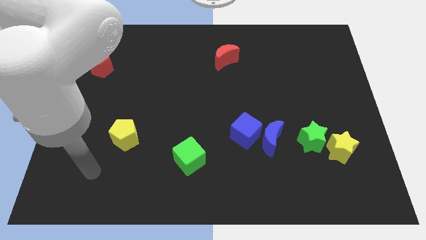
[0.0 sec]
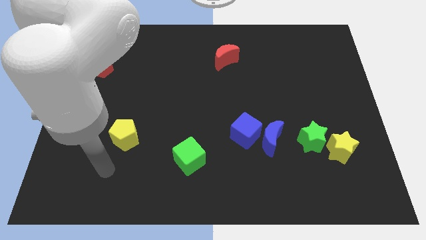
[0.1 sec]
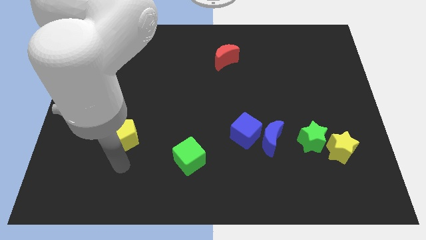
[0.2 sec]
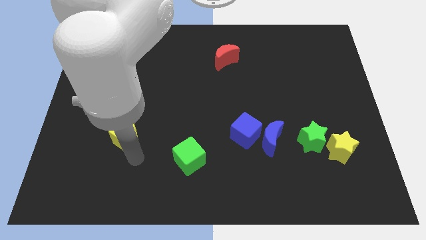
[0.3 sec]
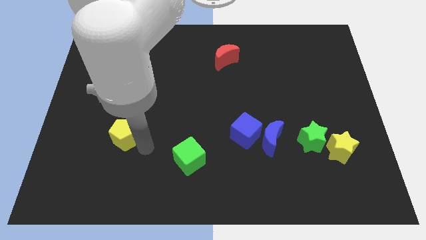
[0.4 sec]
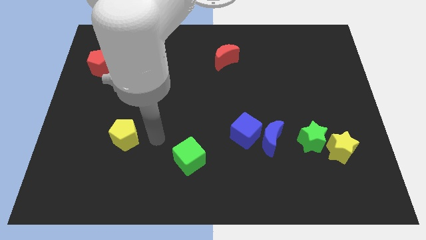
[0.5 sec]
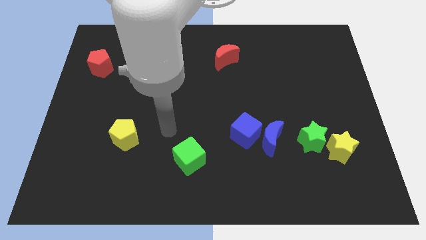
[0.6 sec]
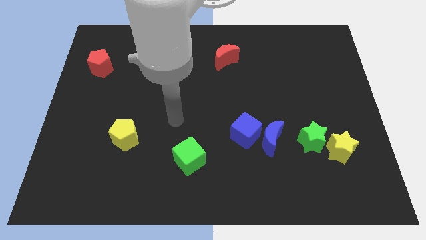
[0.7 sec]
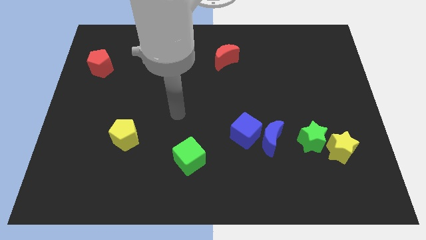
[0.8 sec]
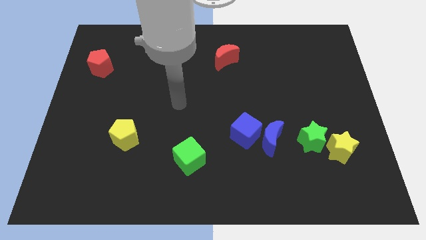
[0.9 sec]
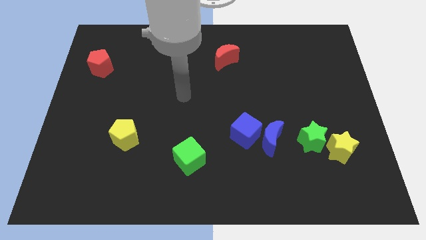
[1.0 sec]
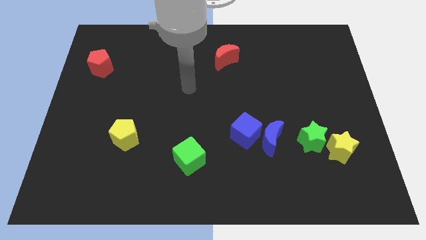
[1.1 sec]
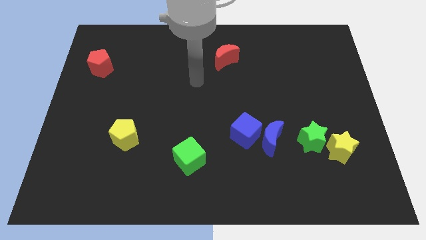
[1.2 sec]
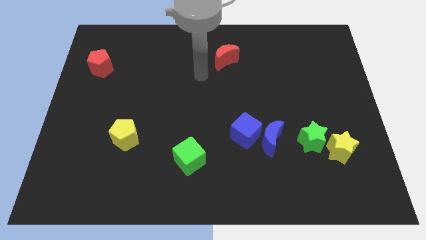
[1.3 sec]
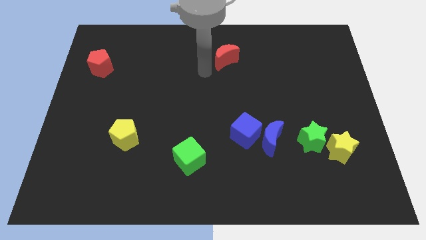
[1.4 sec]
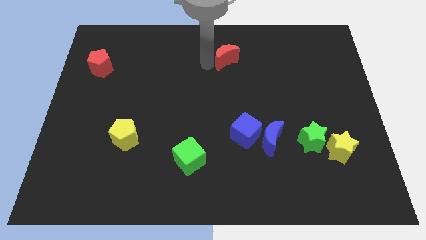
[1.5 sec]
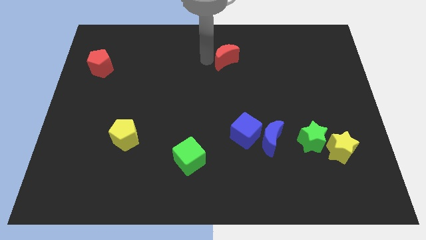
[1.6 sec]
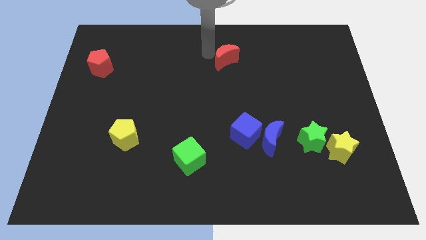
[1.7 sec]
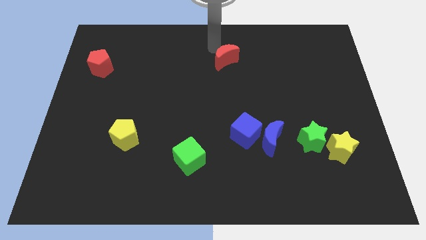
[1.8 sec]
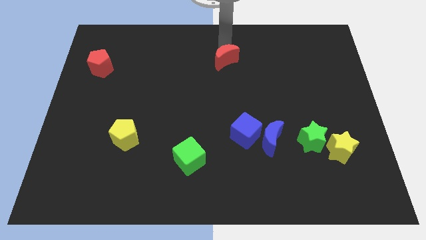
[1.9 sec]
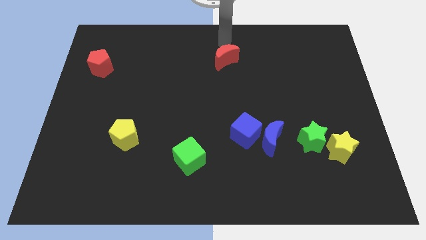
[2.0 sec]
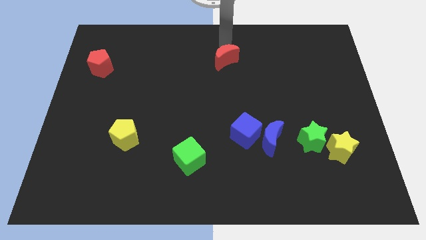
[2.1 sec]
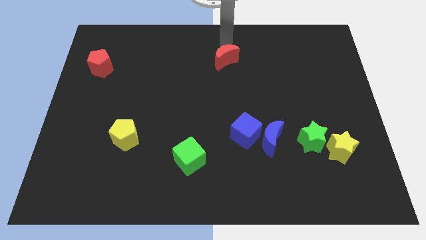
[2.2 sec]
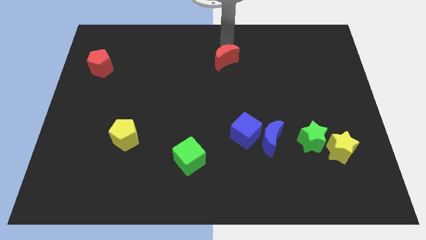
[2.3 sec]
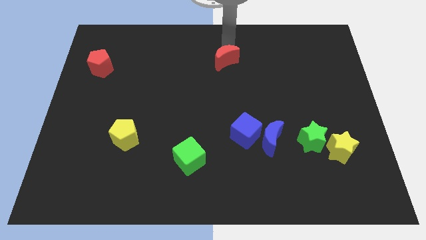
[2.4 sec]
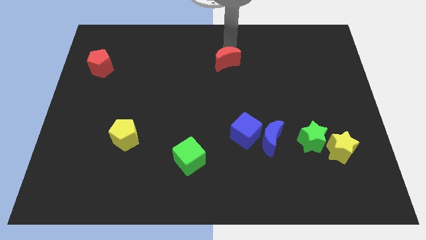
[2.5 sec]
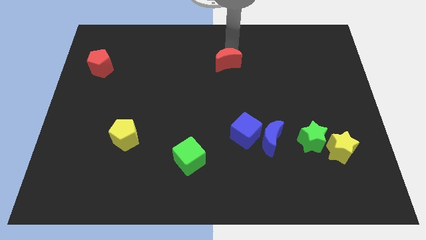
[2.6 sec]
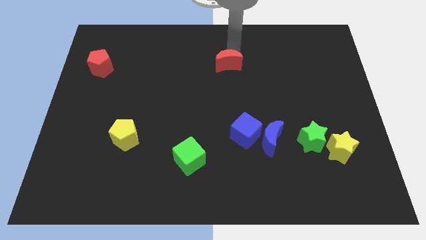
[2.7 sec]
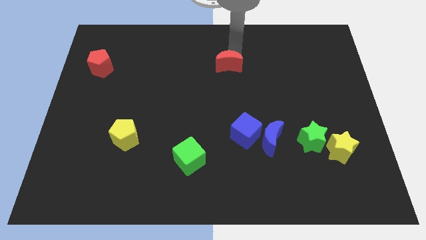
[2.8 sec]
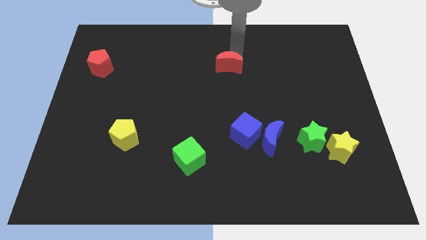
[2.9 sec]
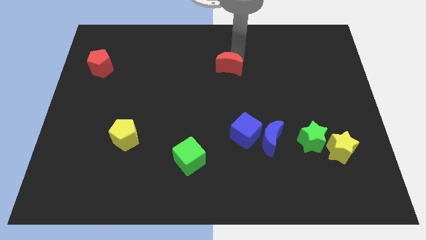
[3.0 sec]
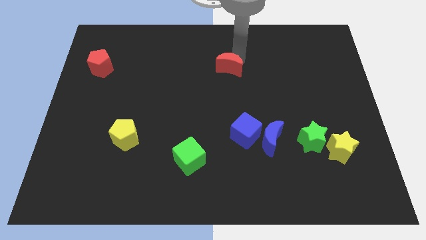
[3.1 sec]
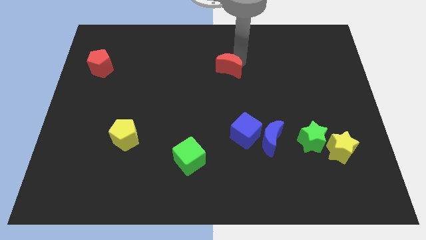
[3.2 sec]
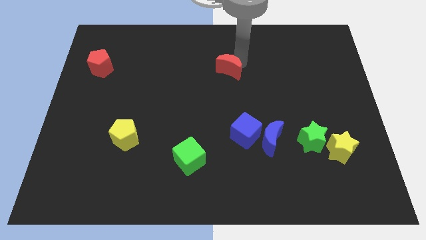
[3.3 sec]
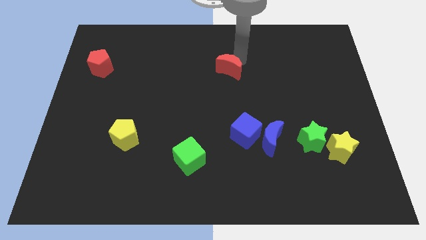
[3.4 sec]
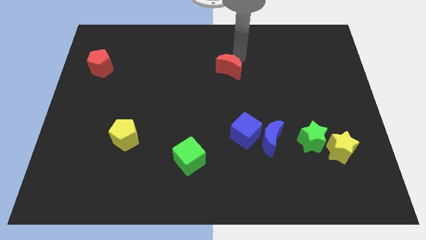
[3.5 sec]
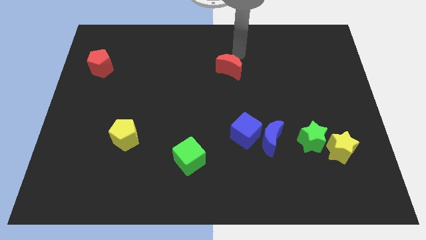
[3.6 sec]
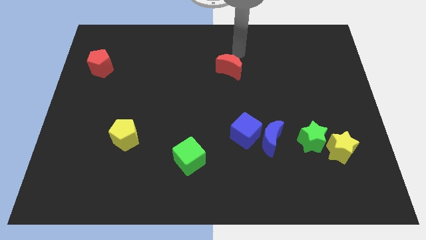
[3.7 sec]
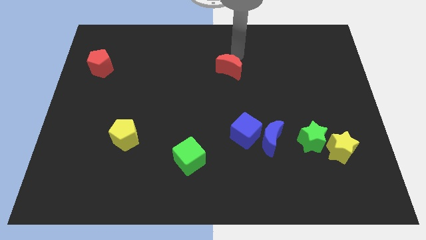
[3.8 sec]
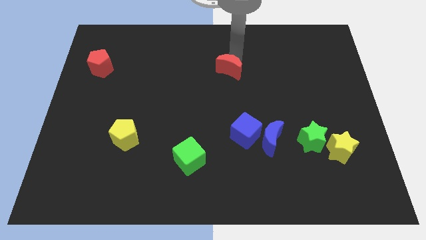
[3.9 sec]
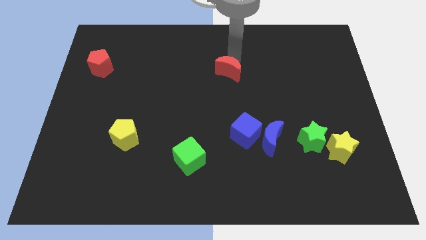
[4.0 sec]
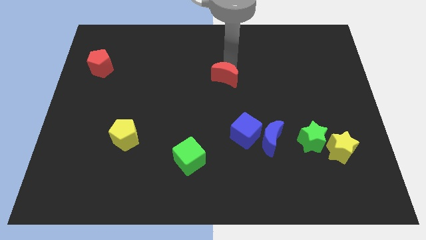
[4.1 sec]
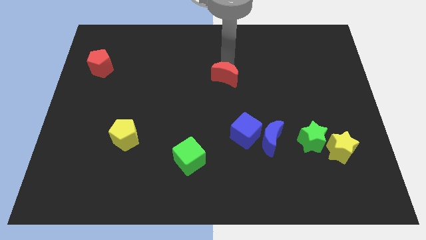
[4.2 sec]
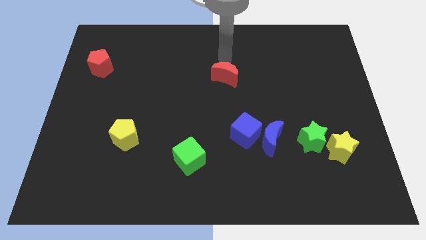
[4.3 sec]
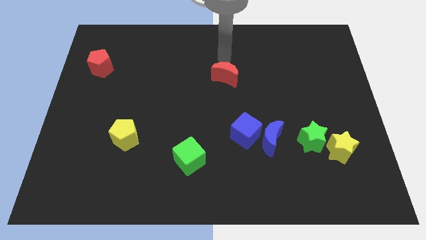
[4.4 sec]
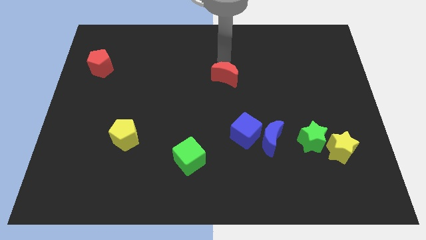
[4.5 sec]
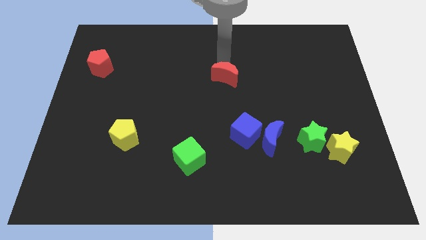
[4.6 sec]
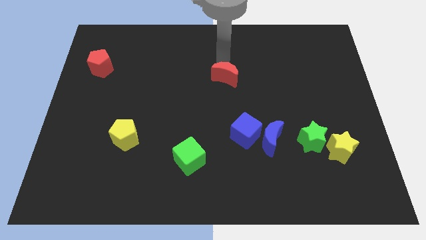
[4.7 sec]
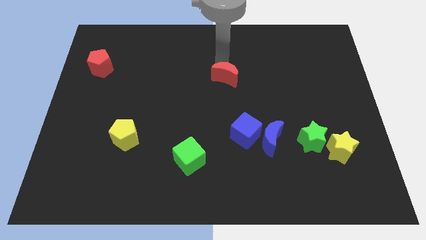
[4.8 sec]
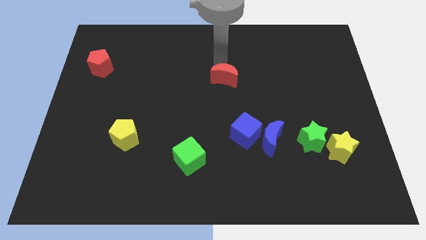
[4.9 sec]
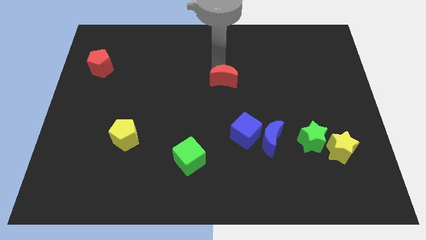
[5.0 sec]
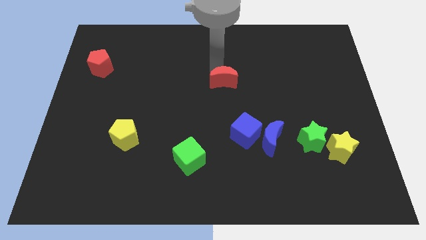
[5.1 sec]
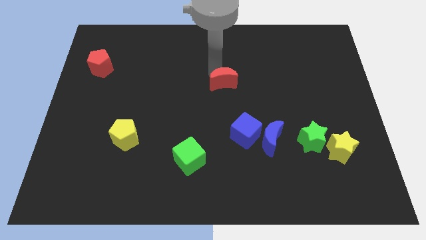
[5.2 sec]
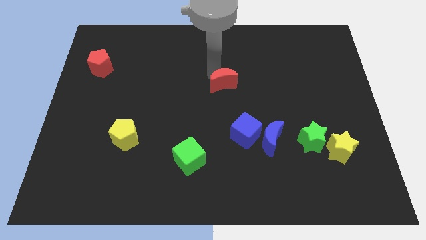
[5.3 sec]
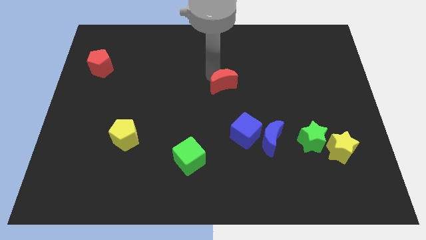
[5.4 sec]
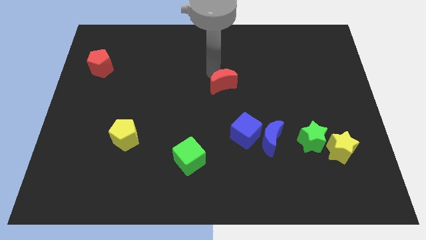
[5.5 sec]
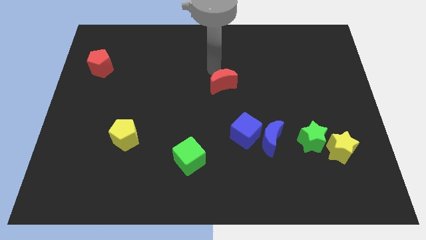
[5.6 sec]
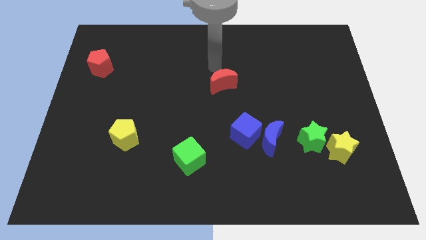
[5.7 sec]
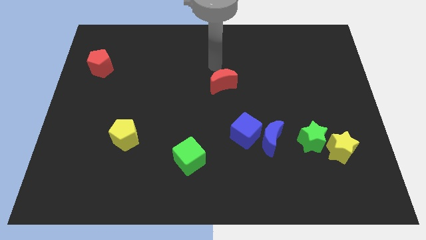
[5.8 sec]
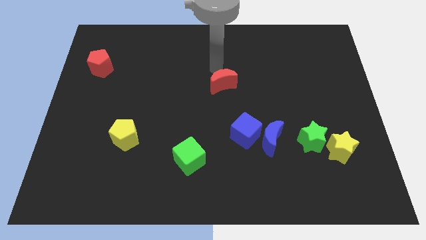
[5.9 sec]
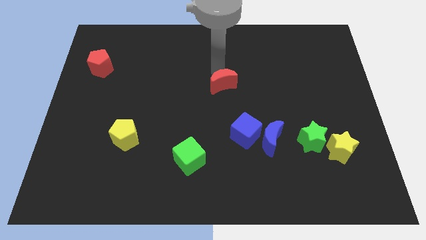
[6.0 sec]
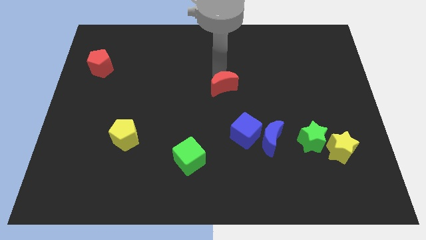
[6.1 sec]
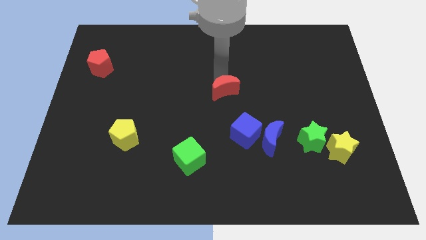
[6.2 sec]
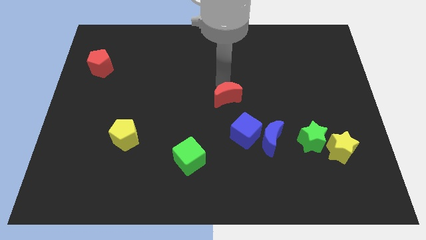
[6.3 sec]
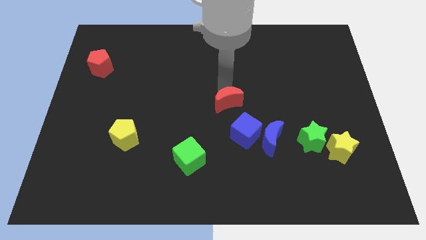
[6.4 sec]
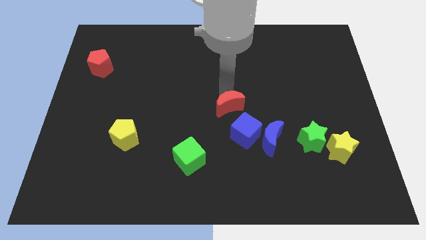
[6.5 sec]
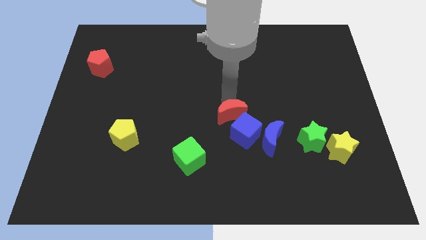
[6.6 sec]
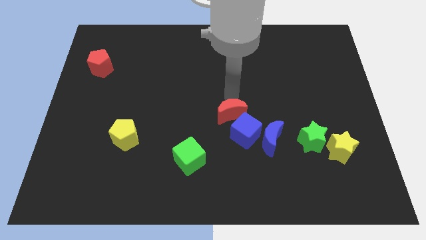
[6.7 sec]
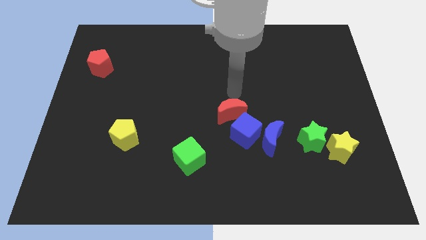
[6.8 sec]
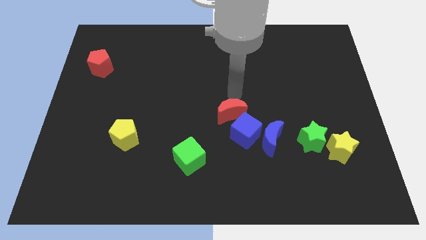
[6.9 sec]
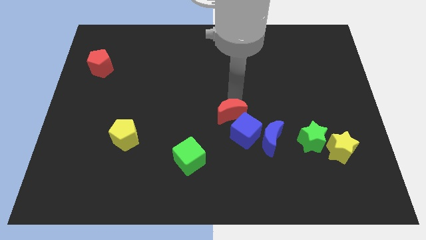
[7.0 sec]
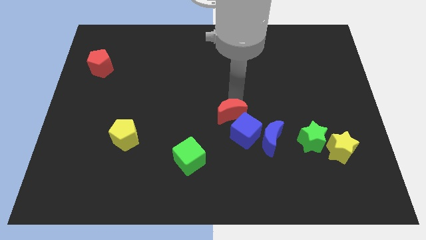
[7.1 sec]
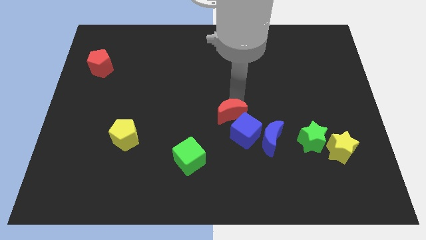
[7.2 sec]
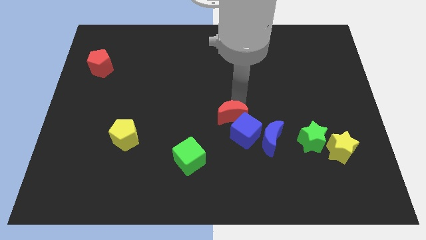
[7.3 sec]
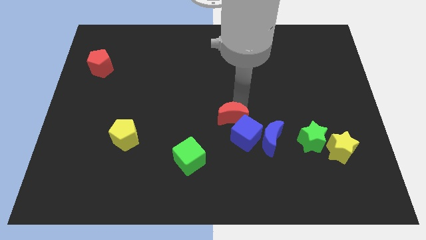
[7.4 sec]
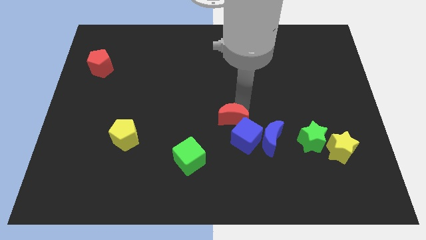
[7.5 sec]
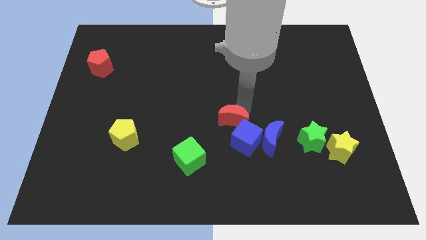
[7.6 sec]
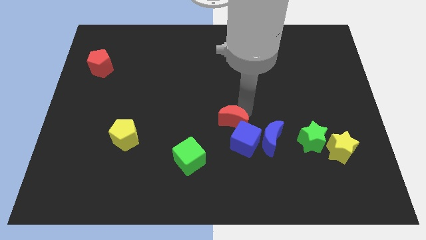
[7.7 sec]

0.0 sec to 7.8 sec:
slide the red moon downwards

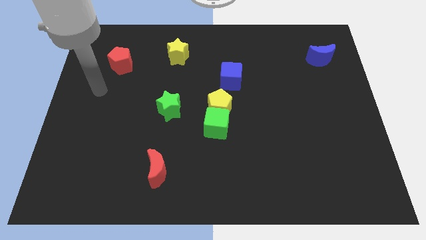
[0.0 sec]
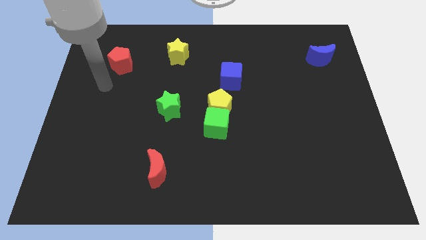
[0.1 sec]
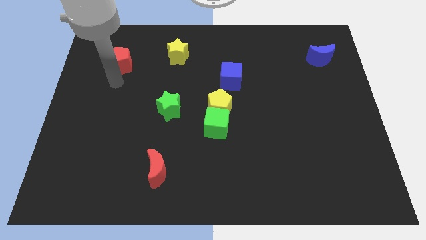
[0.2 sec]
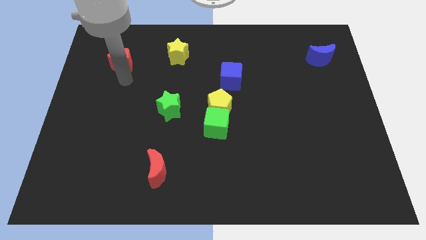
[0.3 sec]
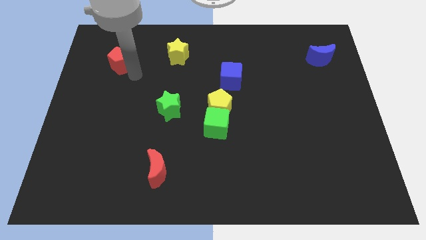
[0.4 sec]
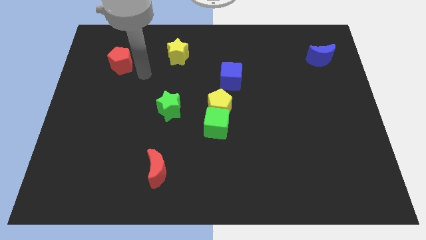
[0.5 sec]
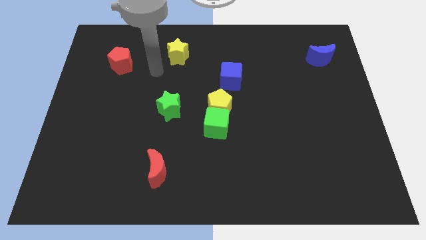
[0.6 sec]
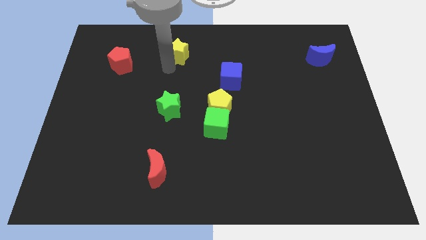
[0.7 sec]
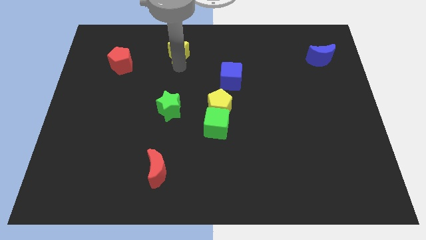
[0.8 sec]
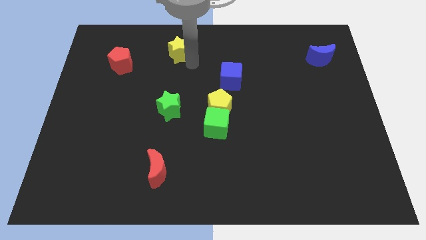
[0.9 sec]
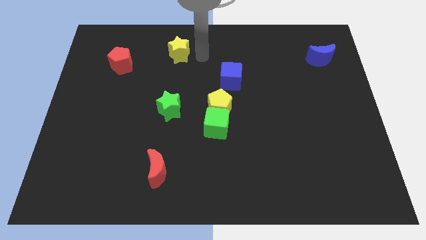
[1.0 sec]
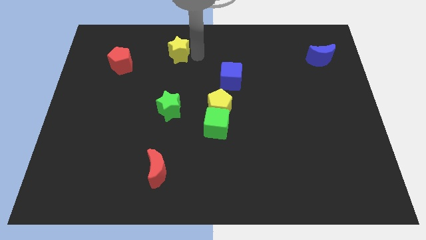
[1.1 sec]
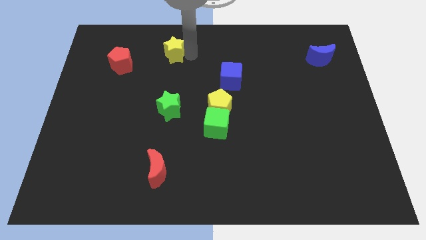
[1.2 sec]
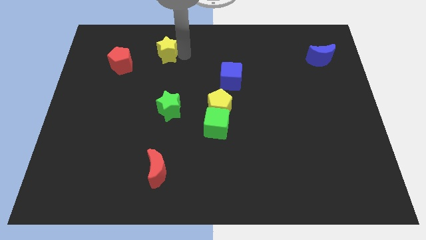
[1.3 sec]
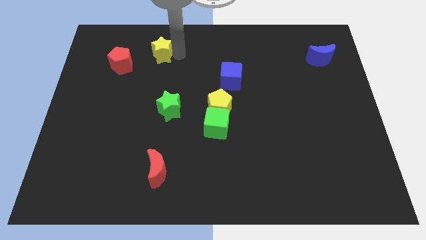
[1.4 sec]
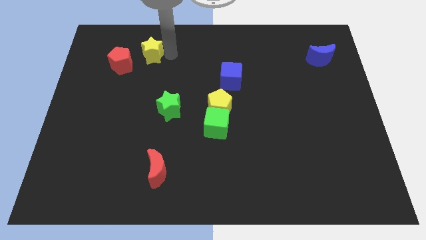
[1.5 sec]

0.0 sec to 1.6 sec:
push the yellow star slightly left
